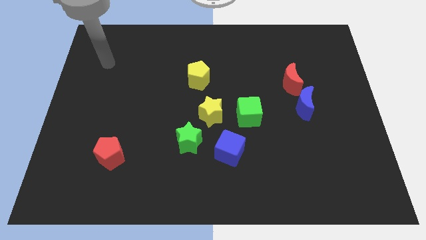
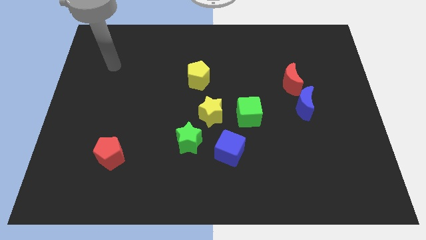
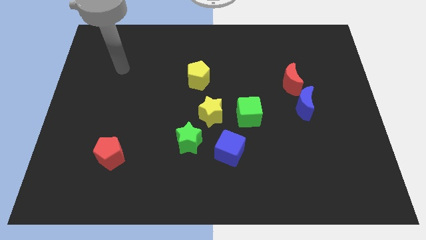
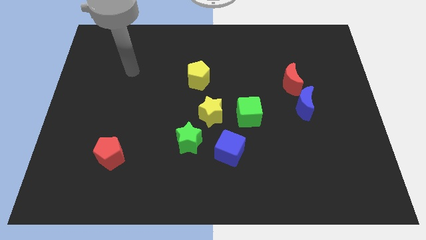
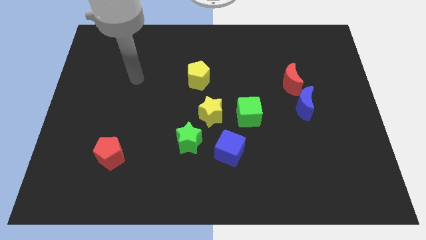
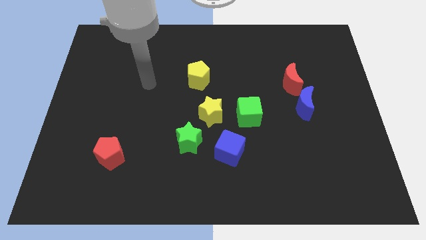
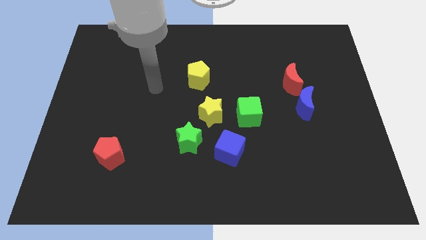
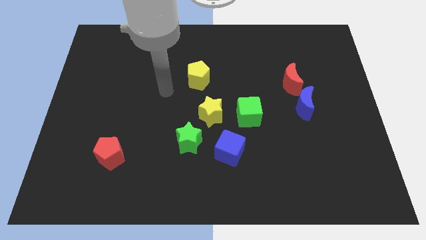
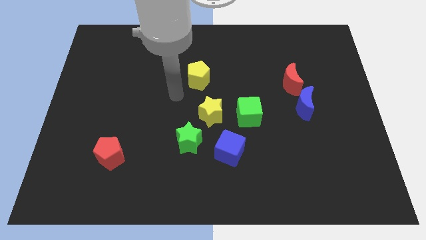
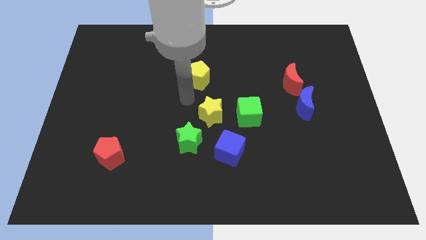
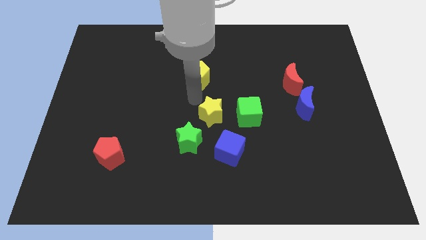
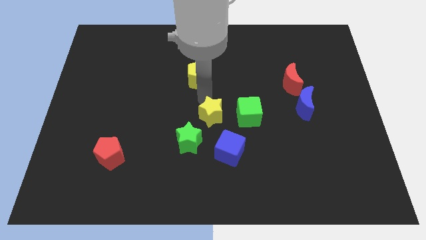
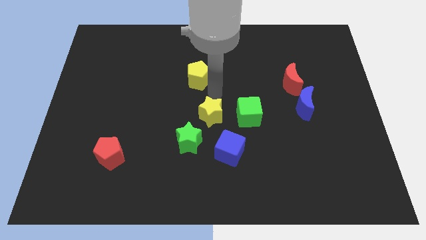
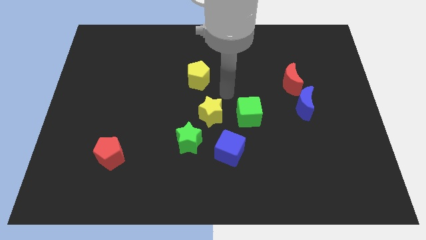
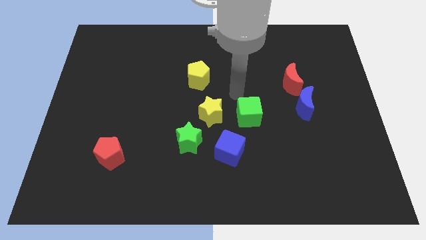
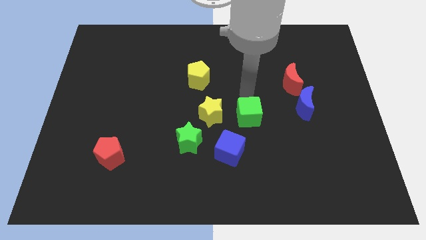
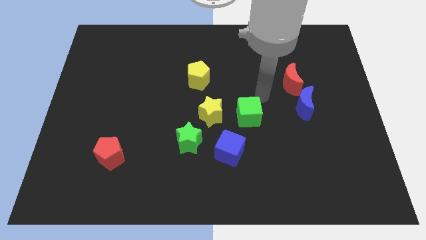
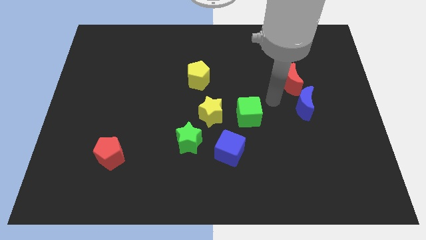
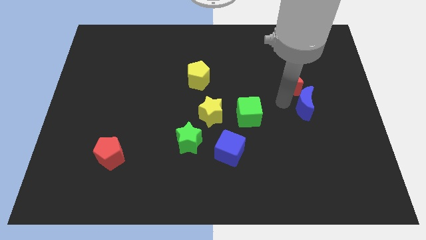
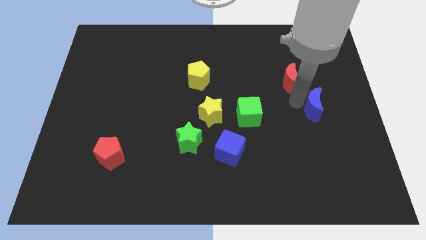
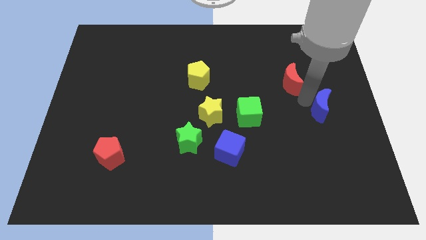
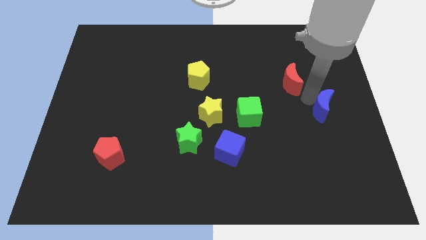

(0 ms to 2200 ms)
move the red moon away from the blue moon

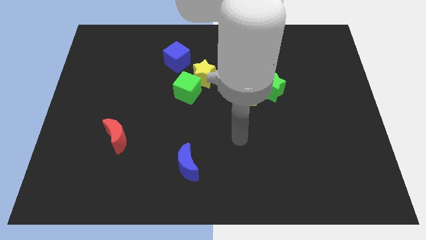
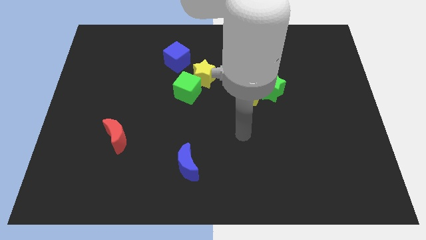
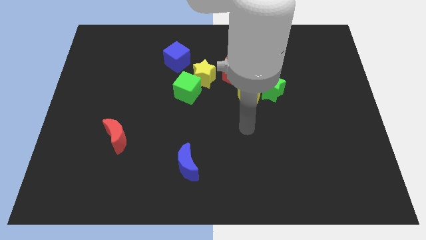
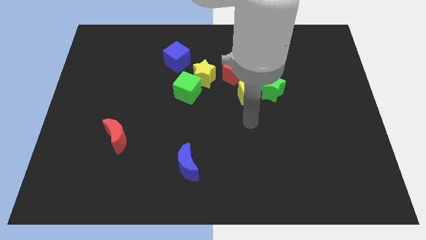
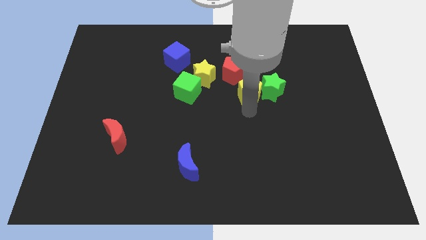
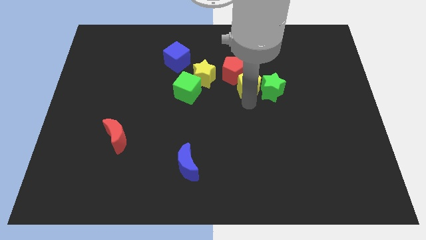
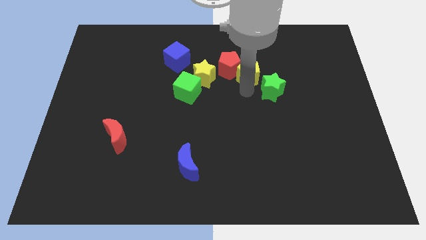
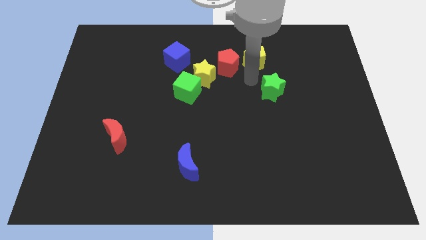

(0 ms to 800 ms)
separate the green star from the yellow pentagon

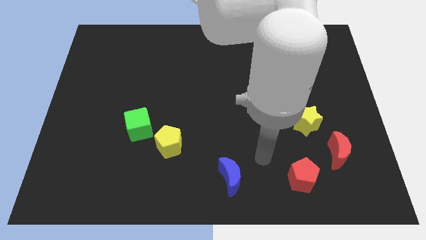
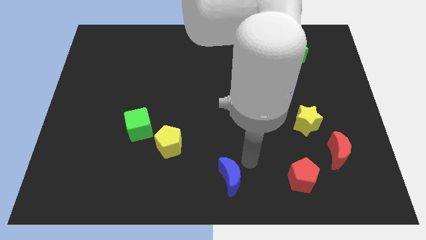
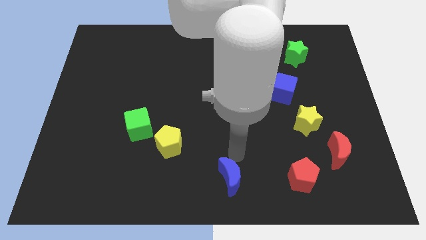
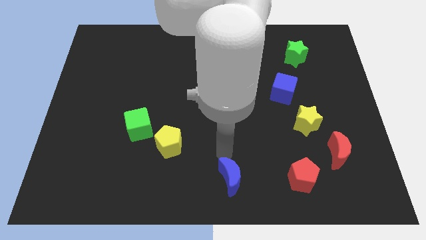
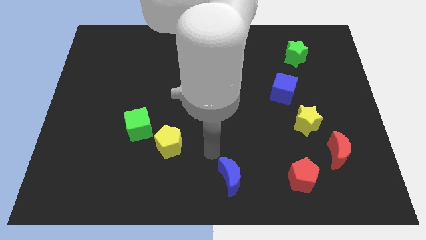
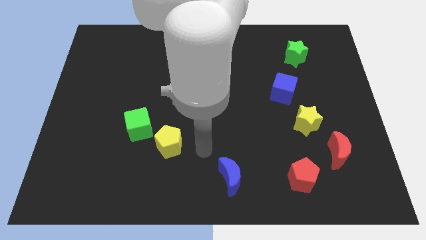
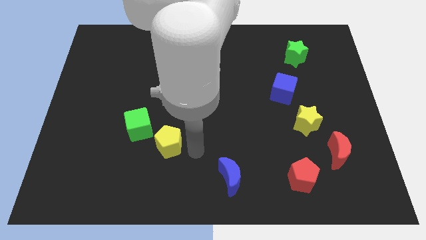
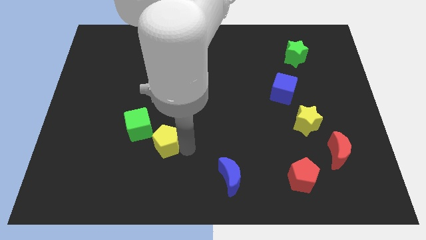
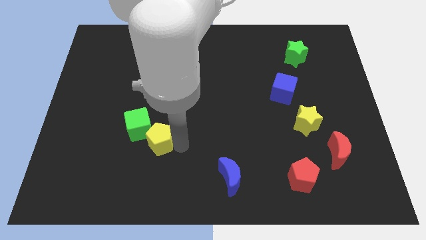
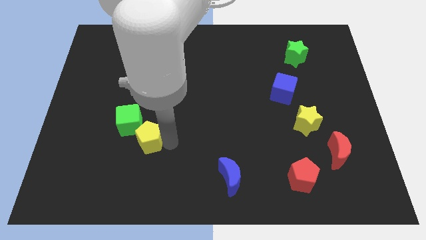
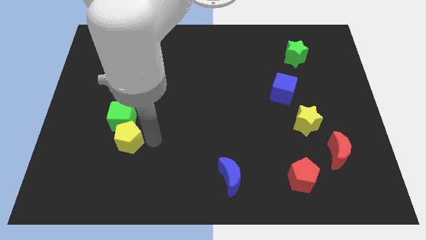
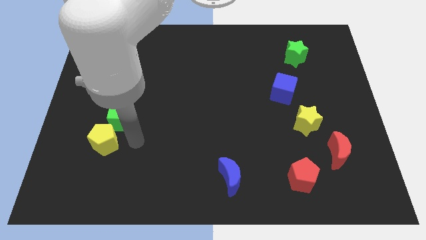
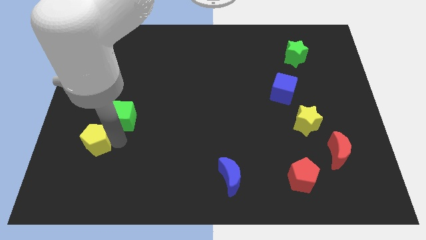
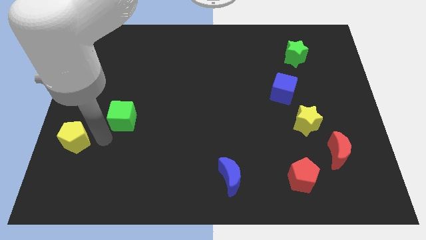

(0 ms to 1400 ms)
pull the green cube apart from the yellow pentagon

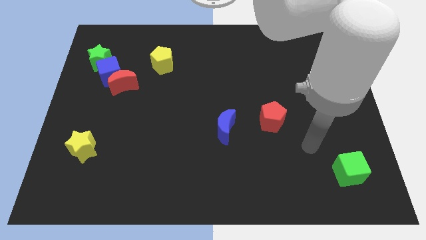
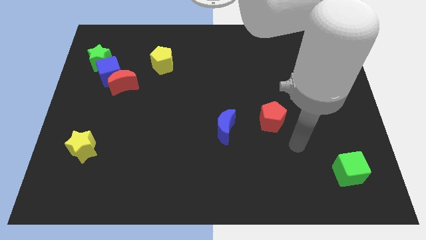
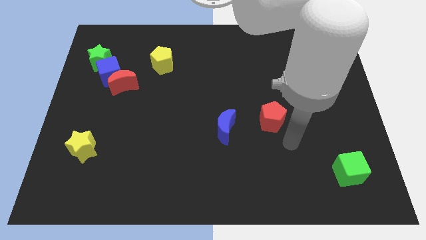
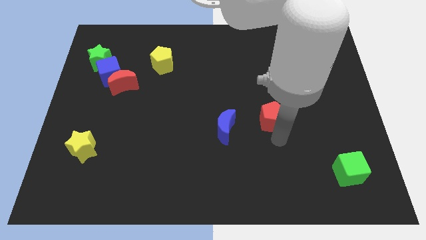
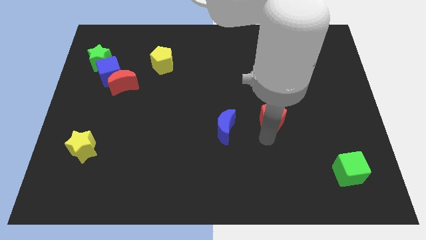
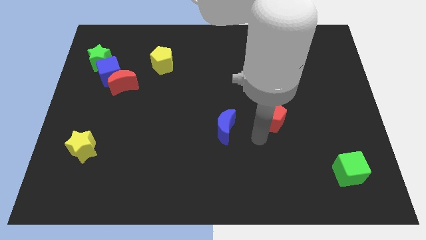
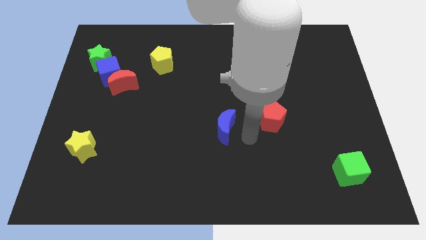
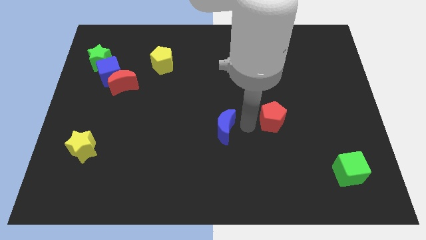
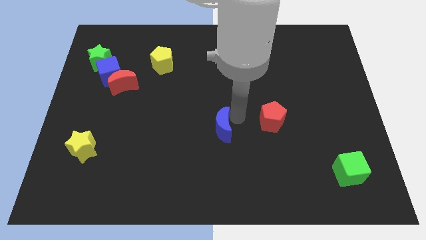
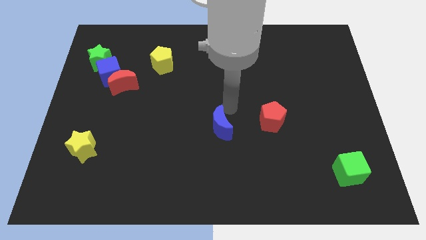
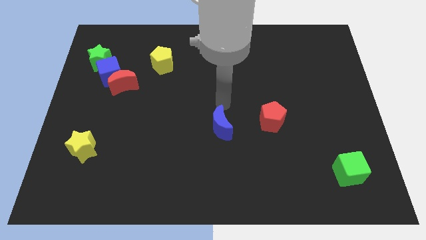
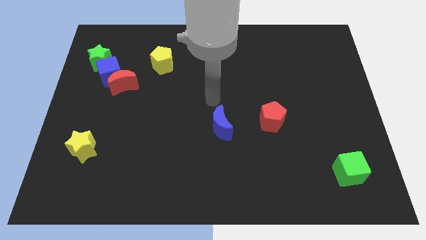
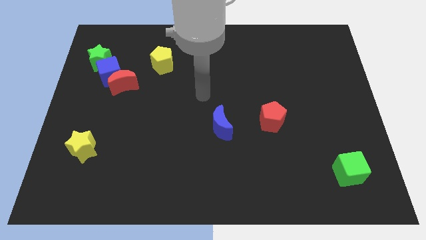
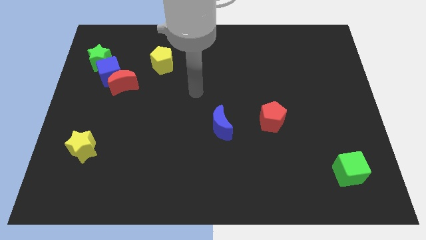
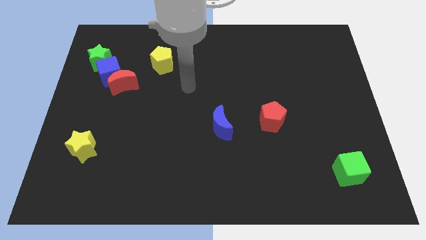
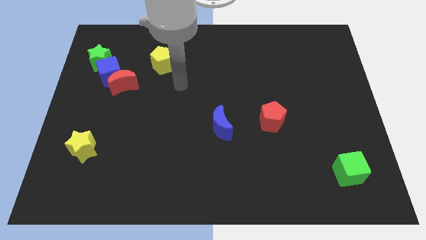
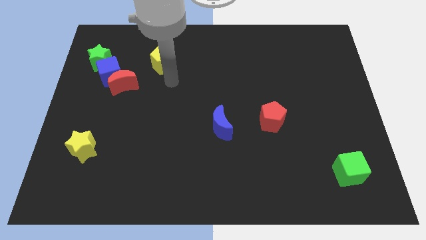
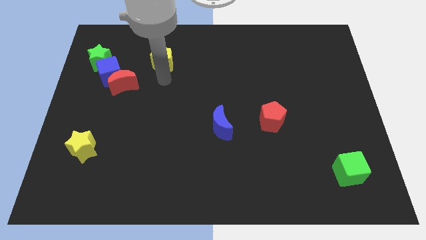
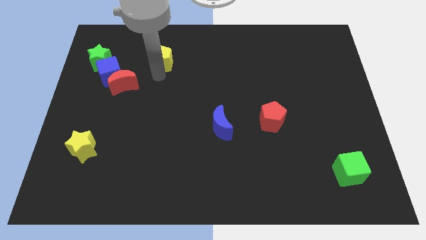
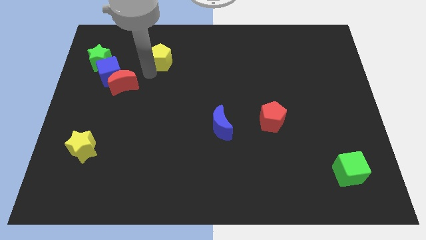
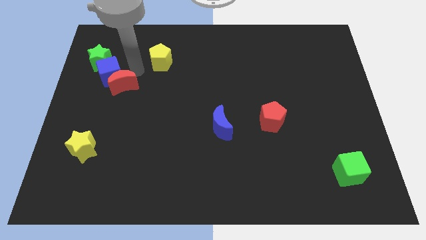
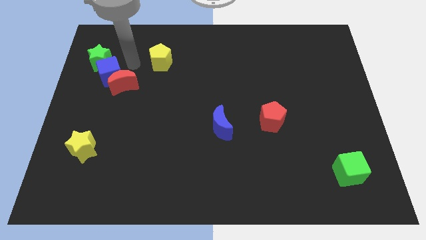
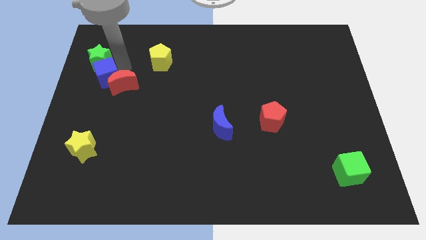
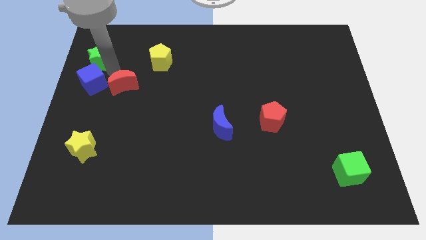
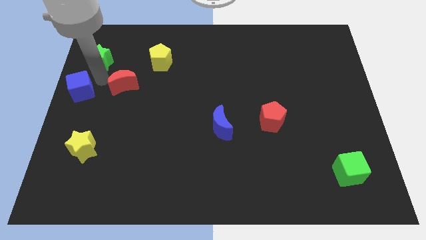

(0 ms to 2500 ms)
move the red moon away from the blue cube

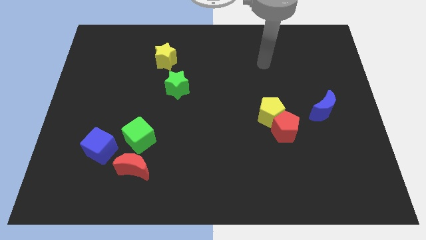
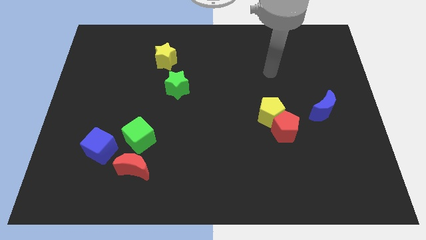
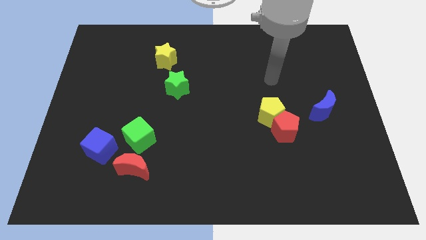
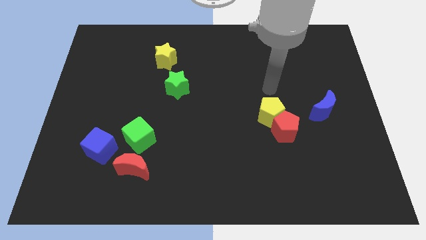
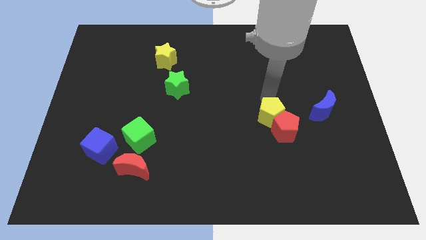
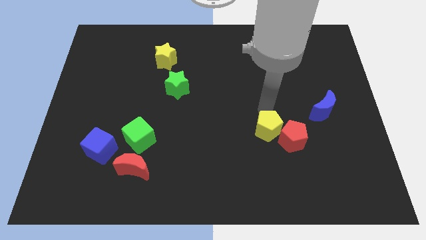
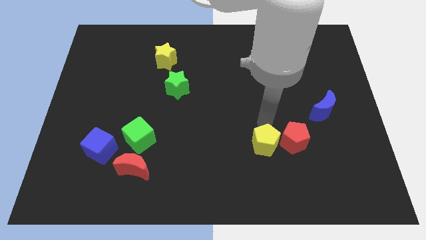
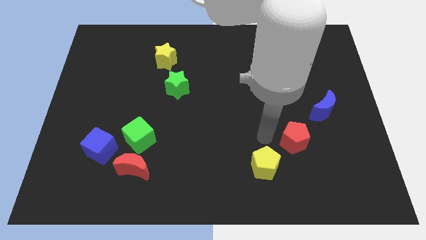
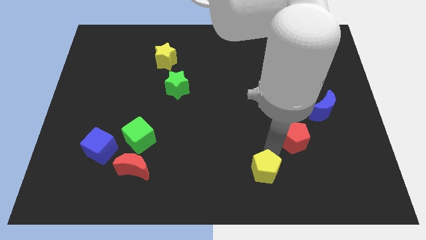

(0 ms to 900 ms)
pull the red pentagon apart from the yellow pentagon

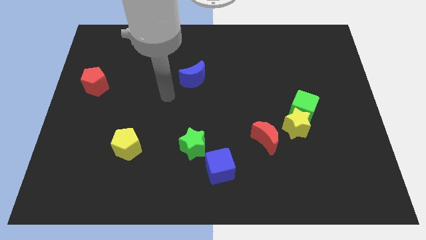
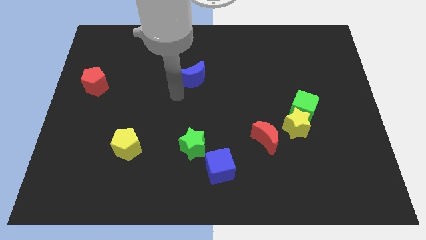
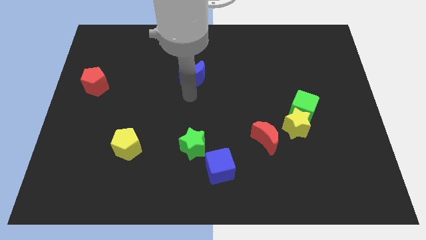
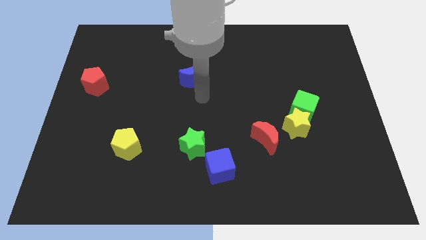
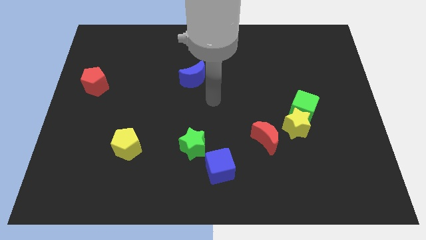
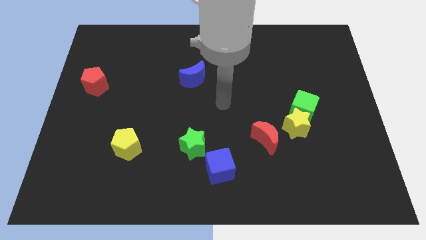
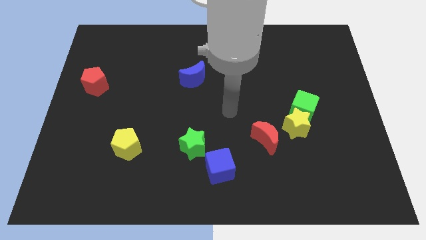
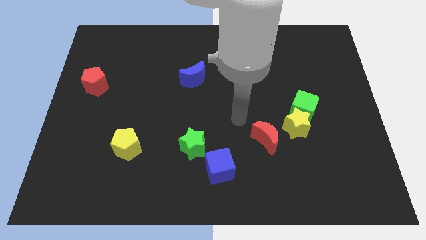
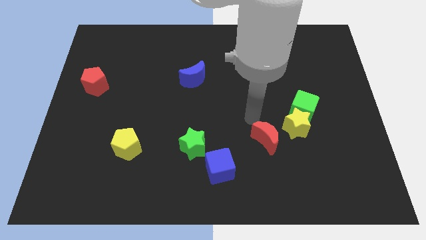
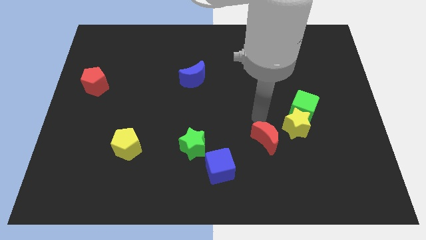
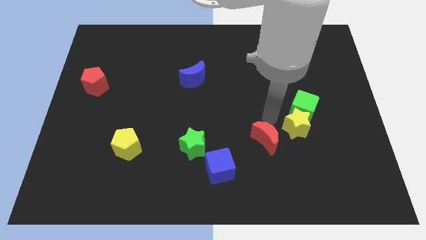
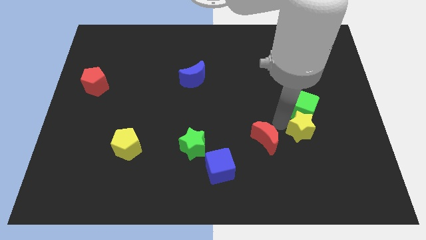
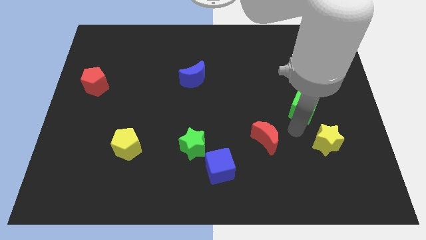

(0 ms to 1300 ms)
separate the green cube from the yellow star

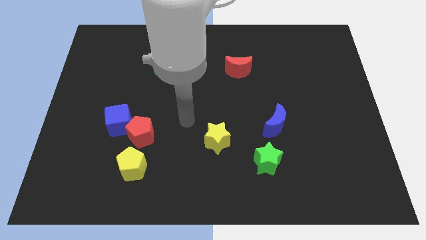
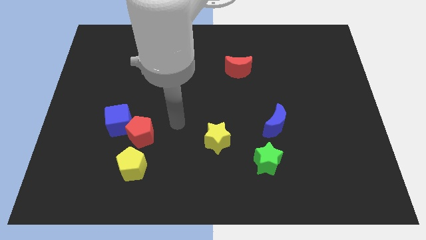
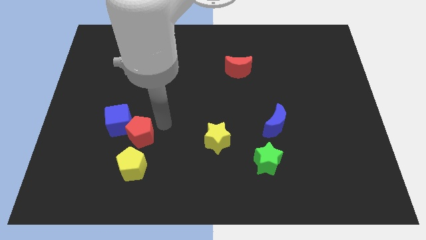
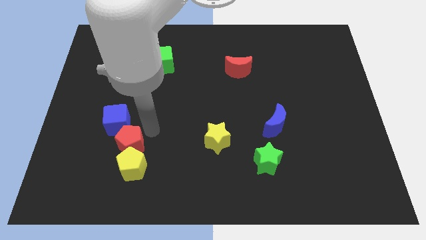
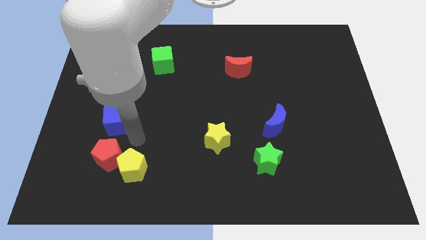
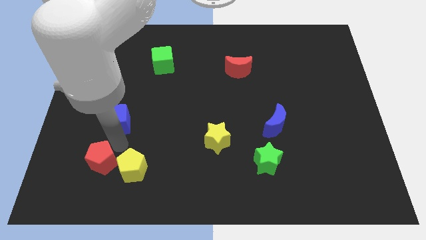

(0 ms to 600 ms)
pull the blue cube apart from the red pentagon
